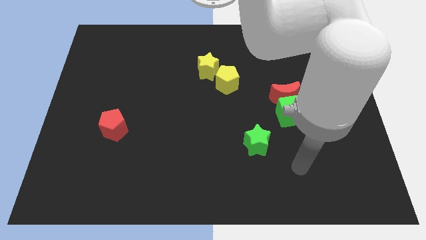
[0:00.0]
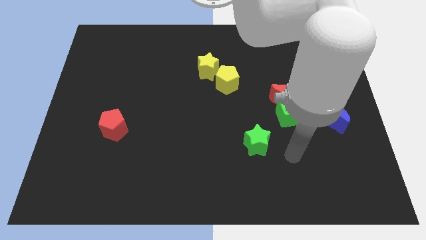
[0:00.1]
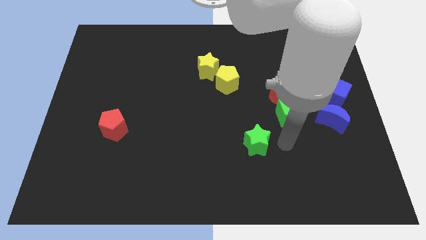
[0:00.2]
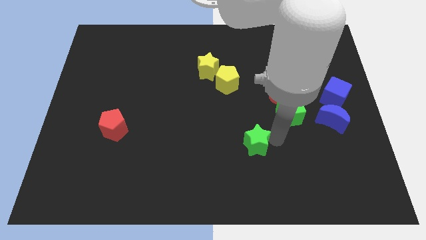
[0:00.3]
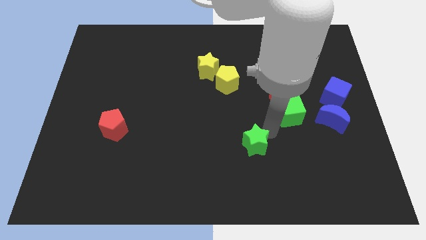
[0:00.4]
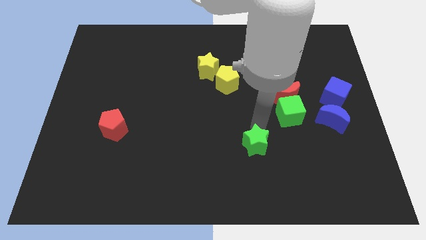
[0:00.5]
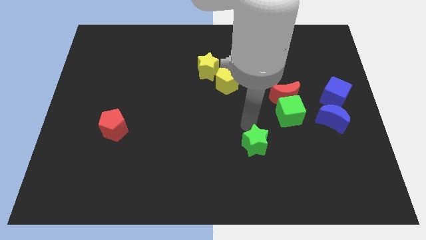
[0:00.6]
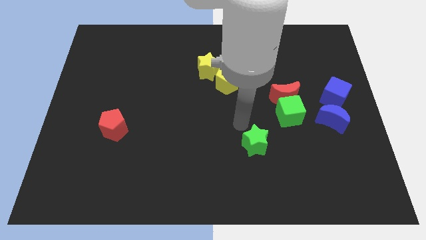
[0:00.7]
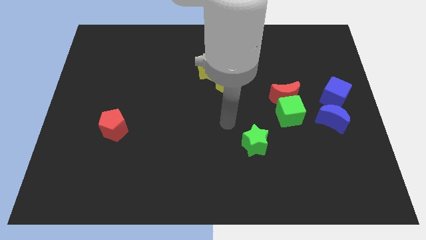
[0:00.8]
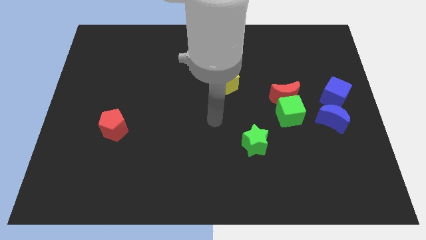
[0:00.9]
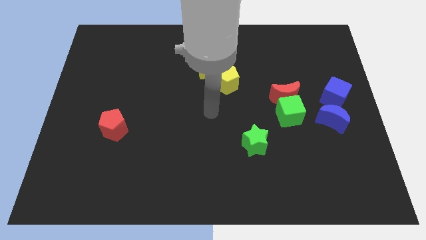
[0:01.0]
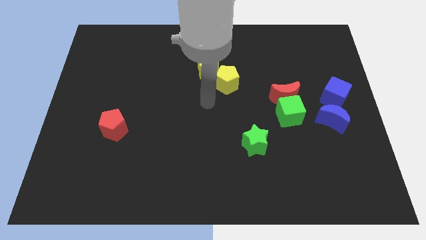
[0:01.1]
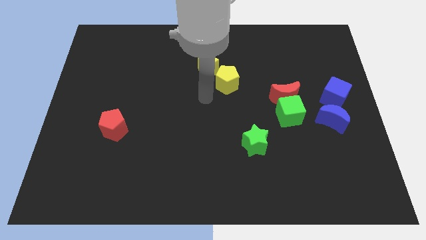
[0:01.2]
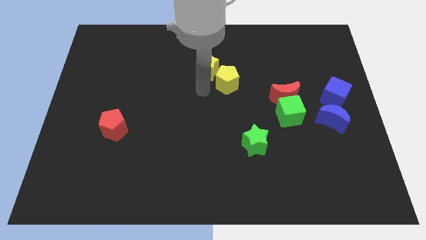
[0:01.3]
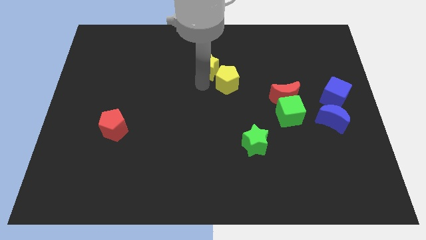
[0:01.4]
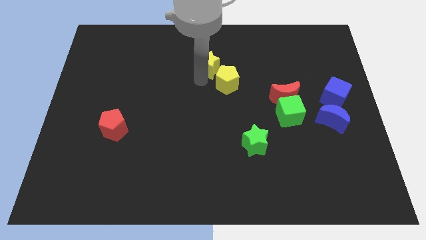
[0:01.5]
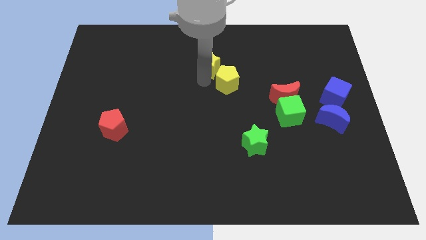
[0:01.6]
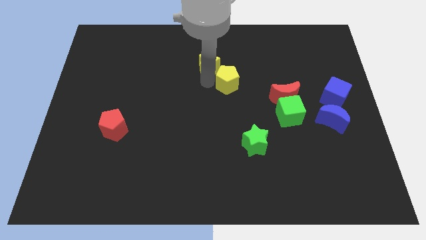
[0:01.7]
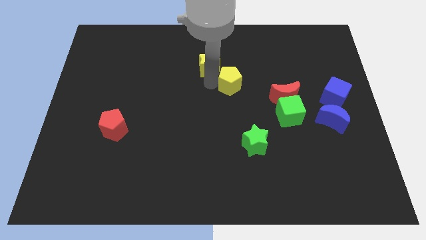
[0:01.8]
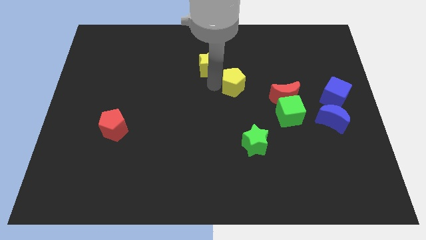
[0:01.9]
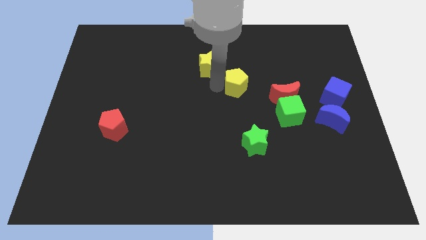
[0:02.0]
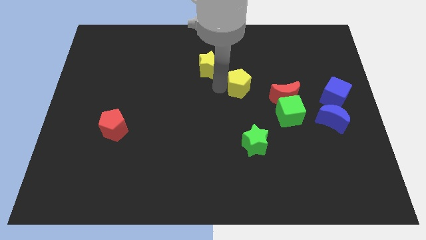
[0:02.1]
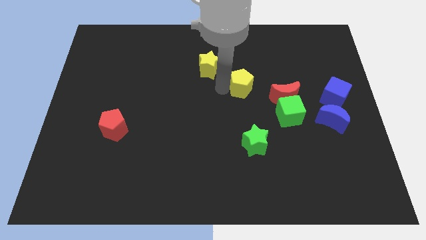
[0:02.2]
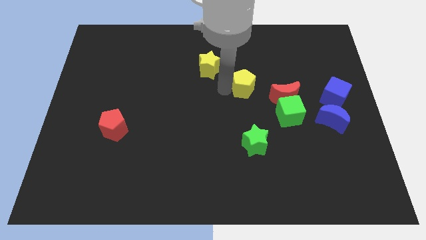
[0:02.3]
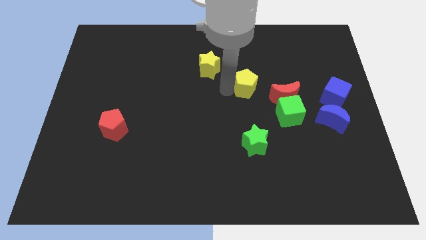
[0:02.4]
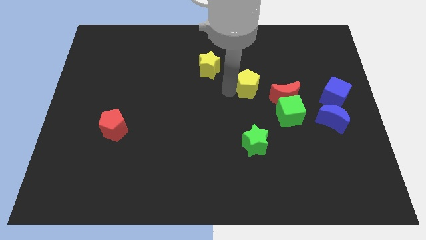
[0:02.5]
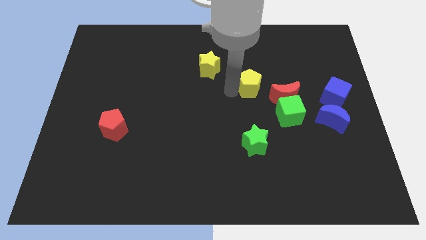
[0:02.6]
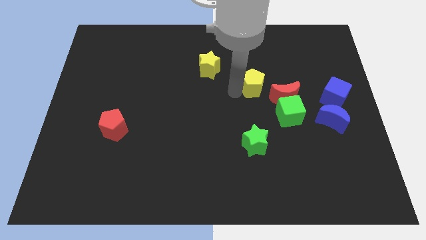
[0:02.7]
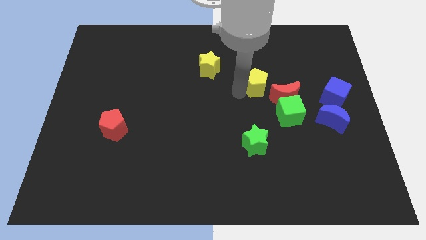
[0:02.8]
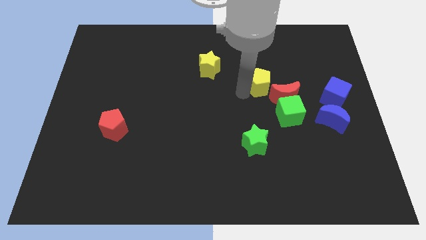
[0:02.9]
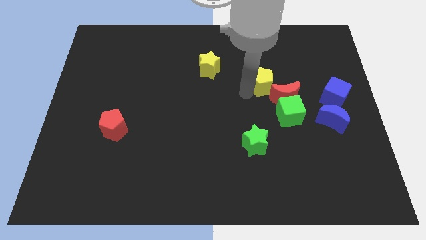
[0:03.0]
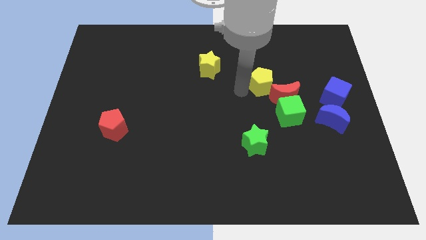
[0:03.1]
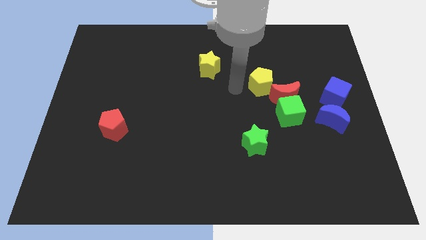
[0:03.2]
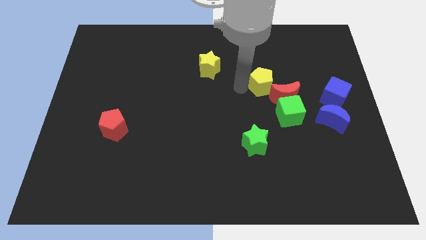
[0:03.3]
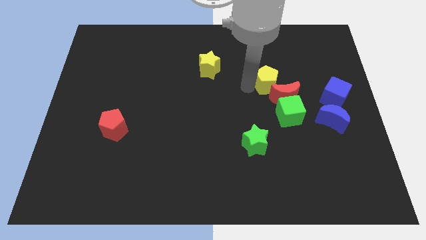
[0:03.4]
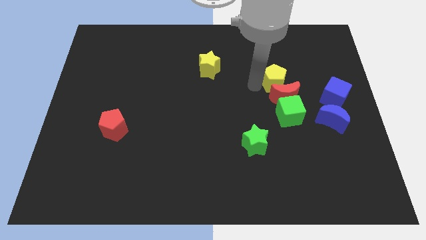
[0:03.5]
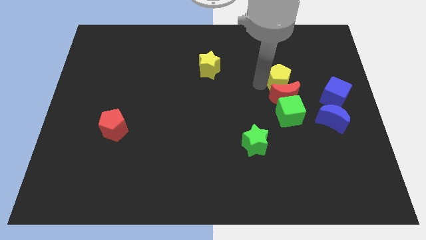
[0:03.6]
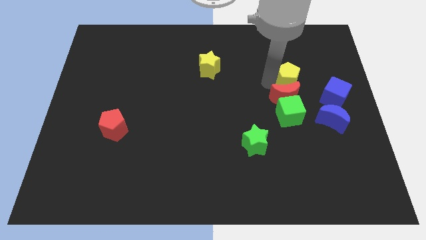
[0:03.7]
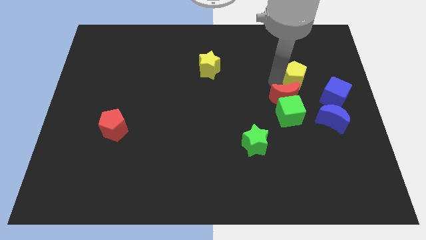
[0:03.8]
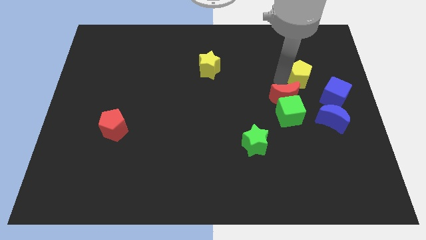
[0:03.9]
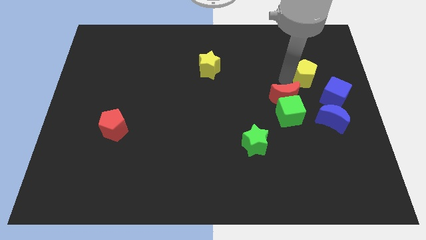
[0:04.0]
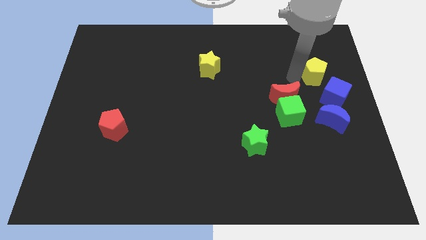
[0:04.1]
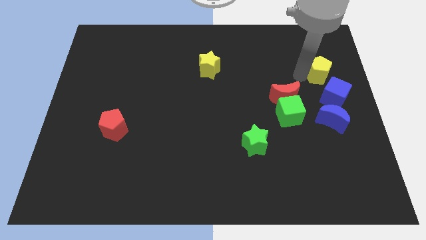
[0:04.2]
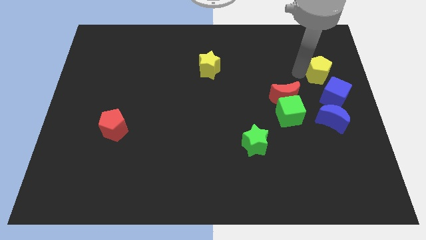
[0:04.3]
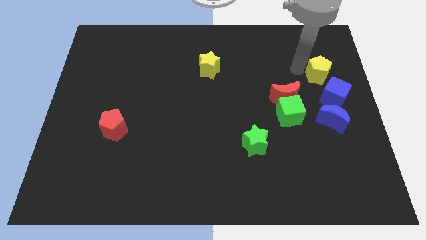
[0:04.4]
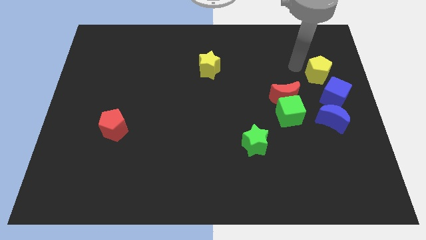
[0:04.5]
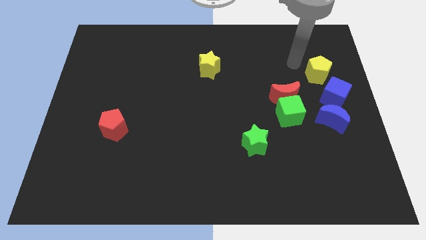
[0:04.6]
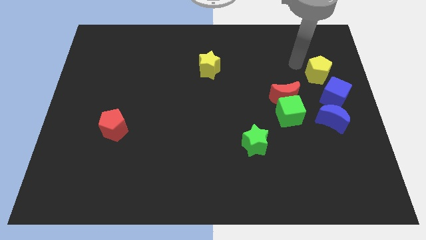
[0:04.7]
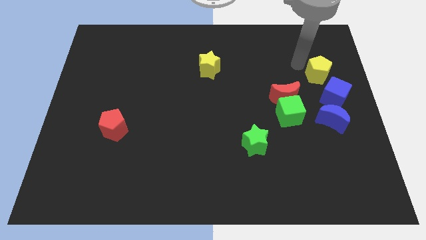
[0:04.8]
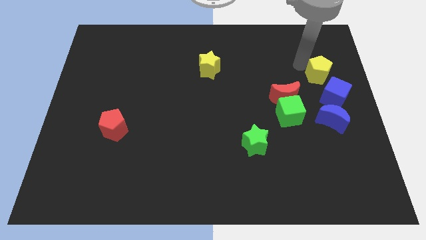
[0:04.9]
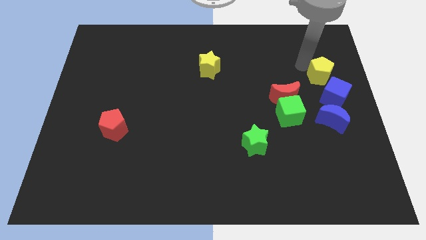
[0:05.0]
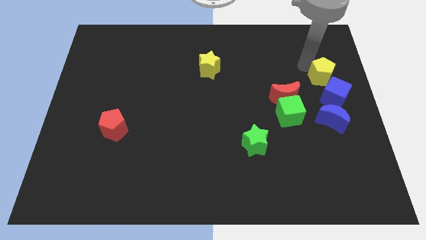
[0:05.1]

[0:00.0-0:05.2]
move the yellow pentagon to the right side of the board

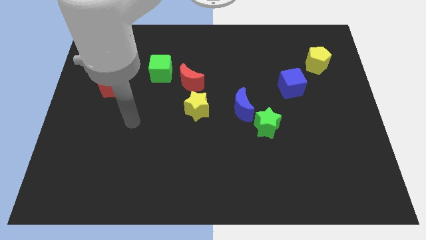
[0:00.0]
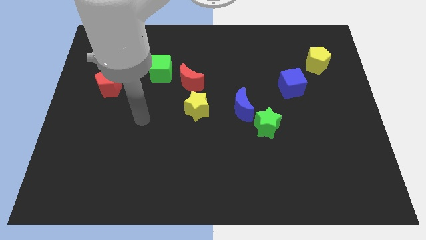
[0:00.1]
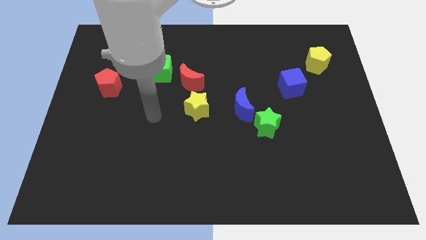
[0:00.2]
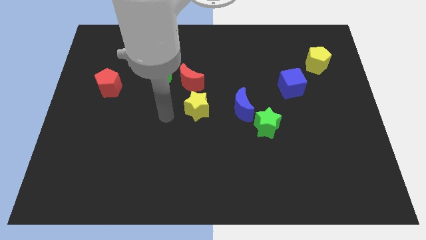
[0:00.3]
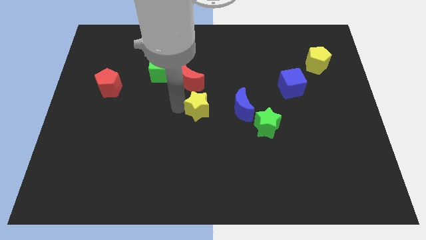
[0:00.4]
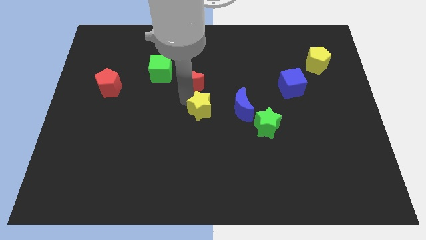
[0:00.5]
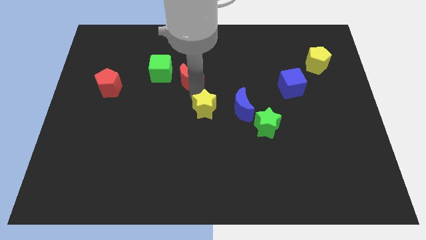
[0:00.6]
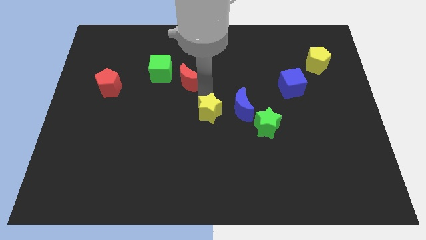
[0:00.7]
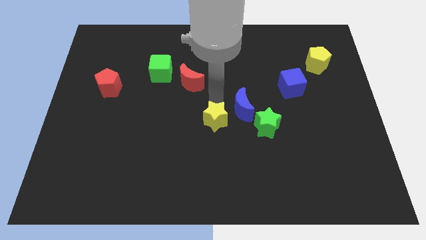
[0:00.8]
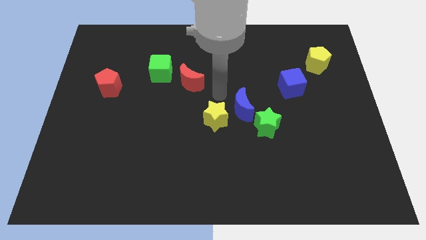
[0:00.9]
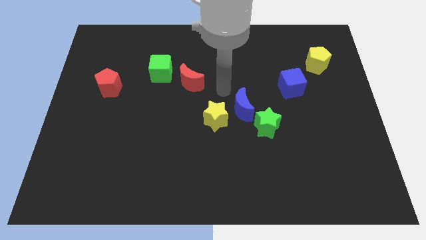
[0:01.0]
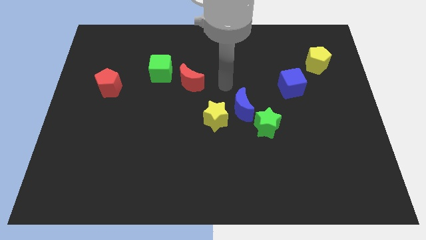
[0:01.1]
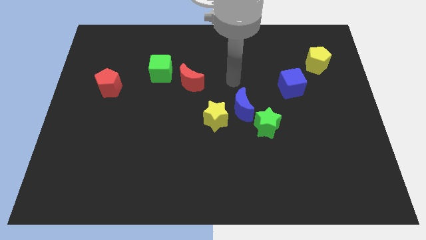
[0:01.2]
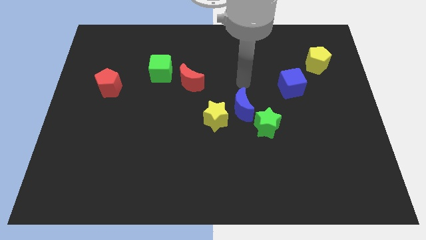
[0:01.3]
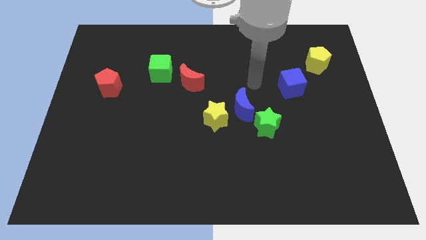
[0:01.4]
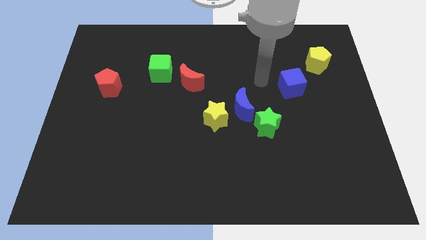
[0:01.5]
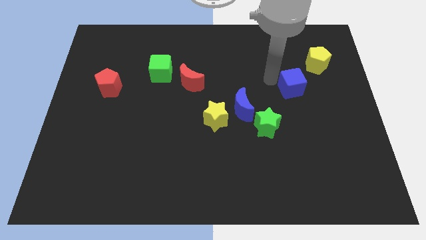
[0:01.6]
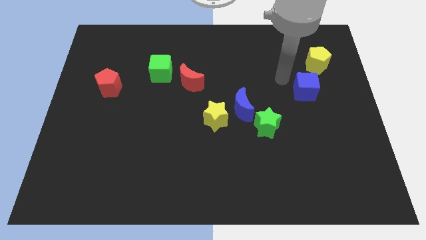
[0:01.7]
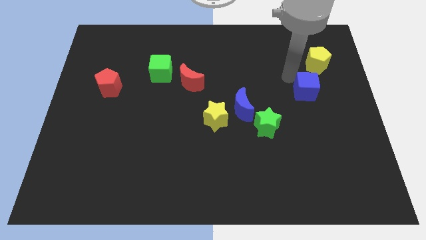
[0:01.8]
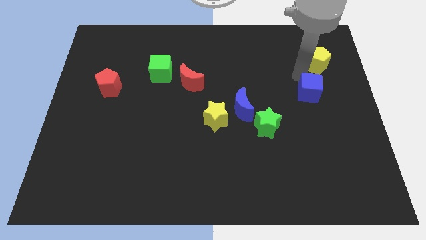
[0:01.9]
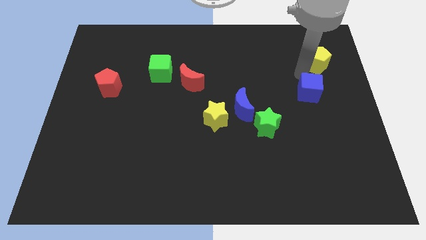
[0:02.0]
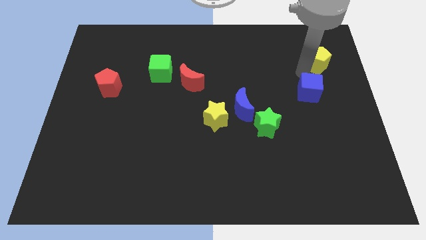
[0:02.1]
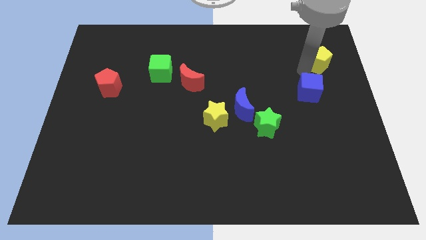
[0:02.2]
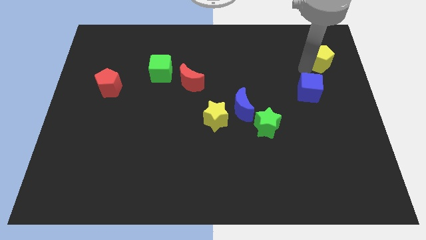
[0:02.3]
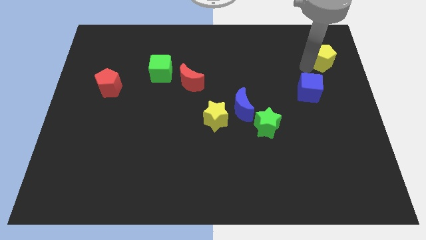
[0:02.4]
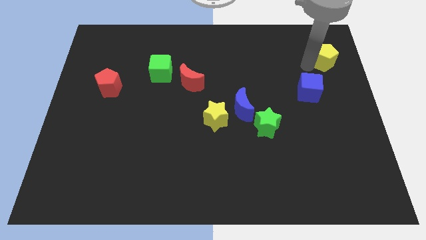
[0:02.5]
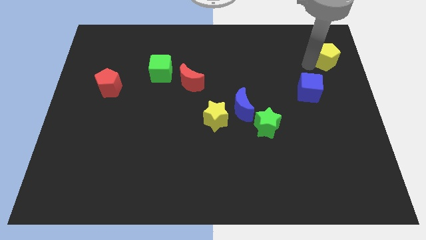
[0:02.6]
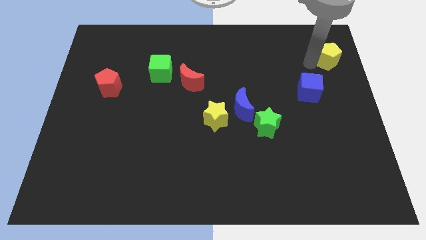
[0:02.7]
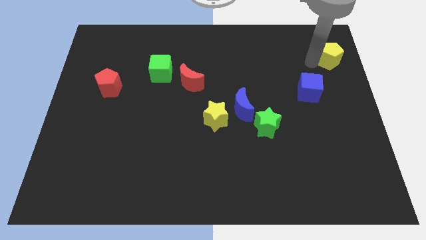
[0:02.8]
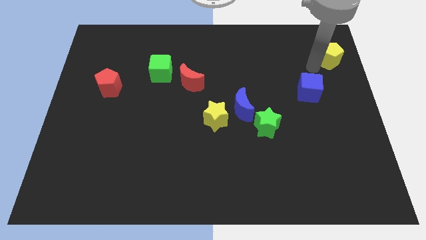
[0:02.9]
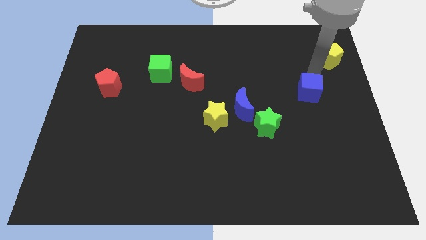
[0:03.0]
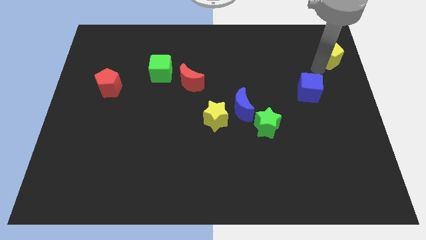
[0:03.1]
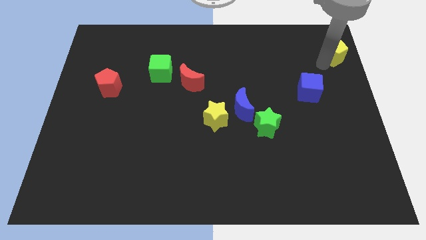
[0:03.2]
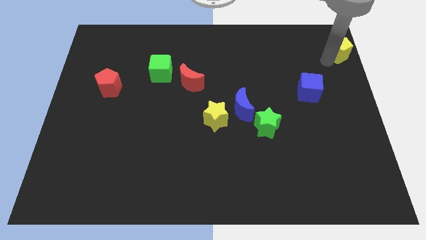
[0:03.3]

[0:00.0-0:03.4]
slide the yellow pentagon to the top right of the board
